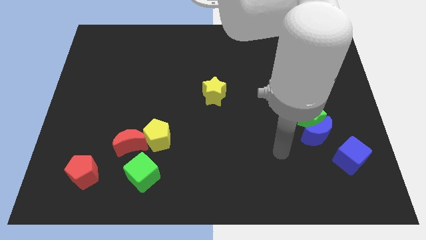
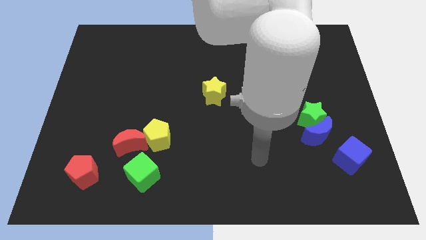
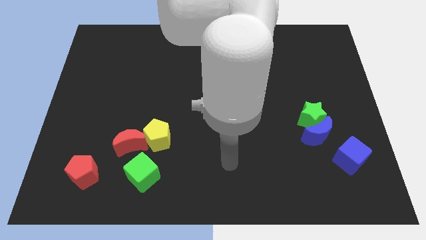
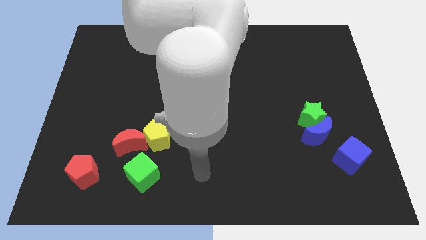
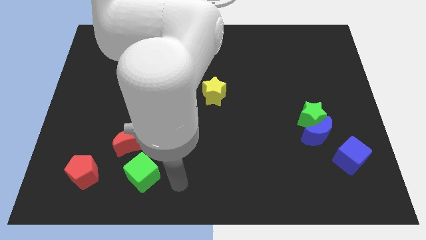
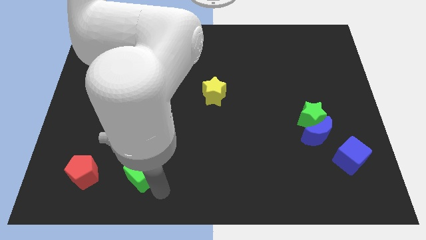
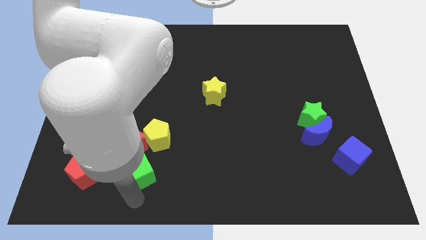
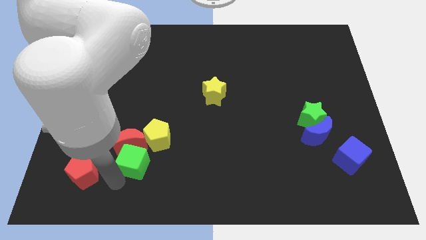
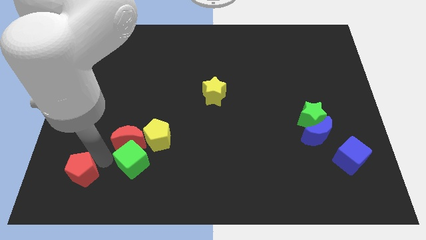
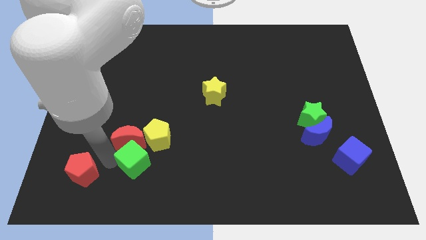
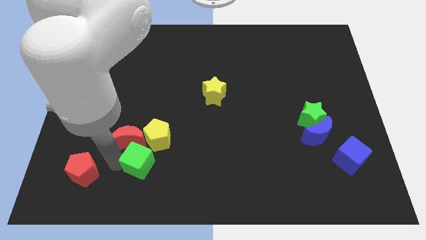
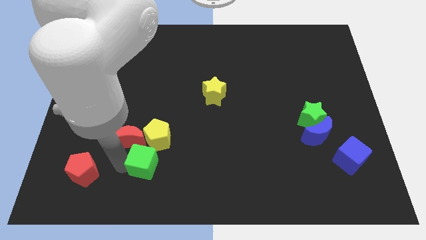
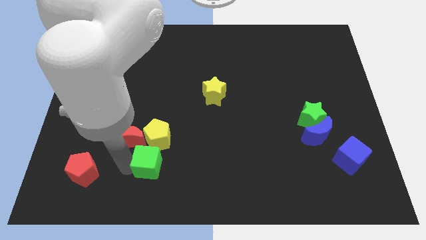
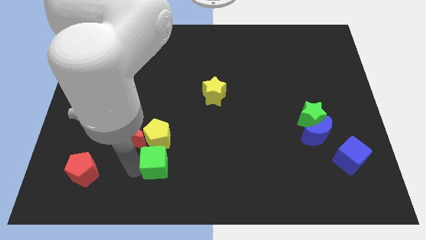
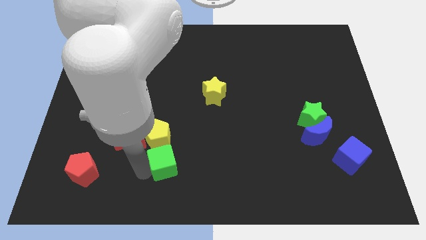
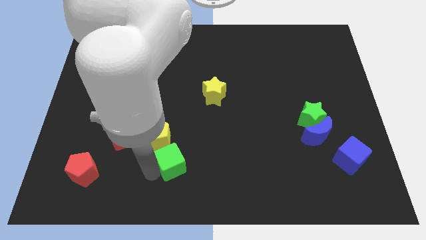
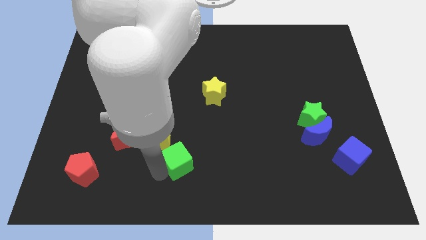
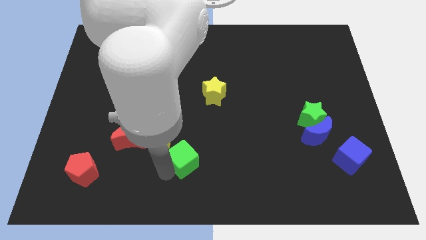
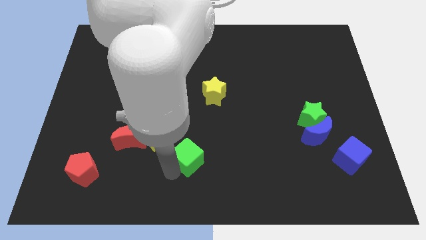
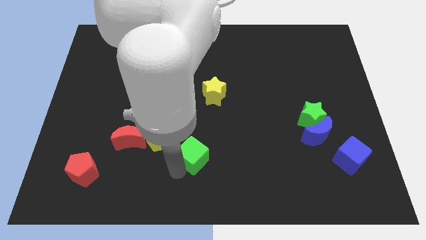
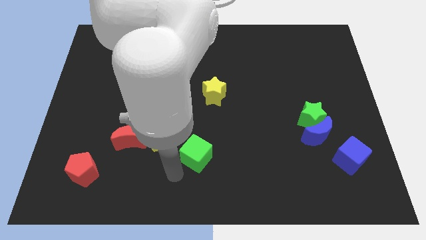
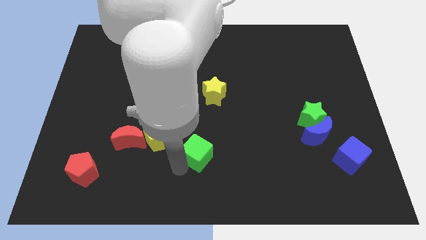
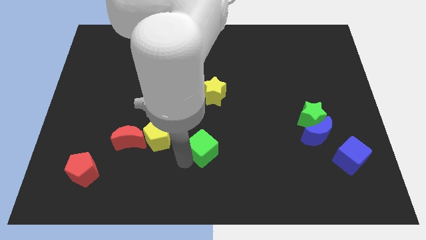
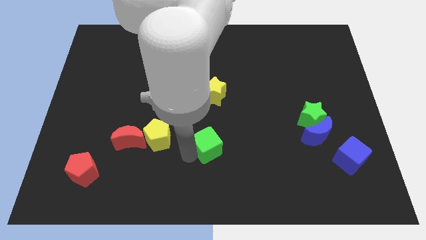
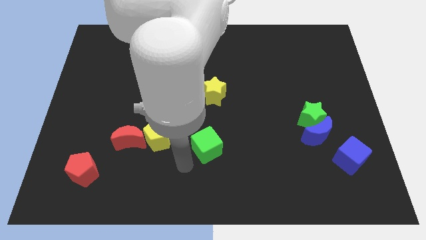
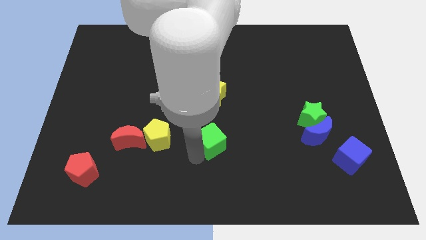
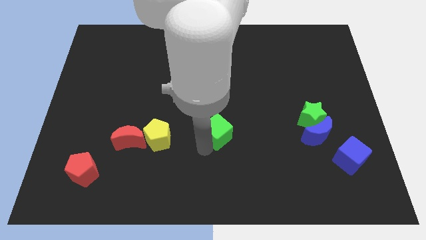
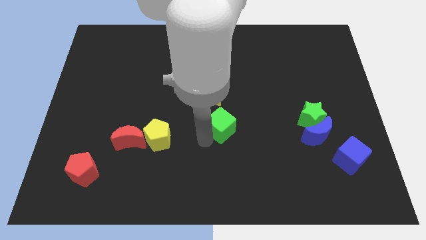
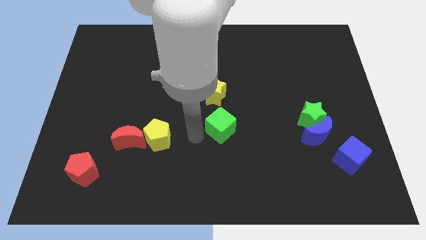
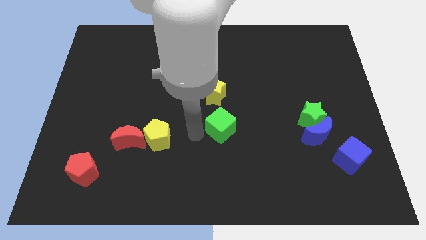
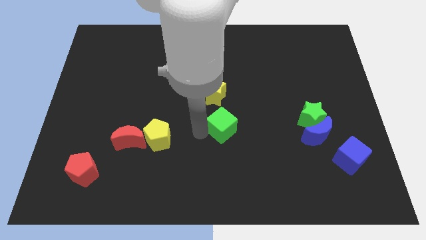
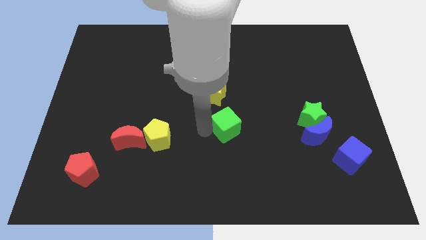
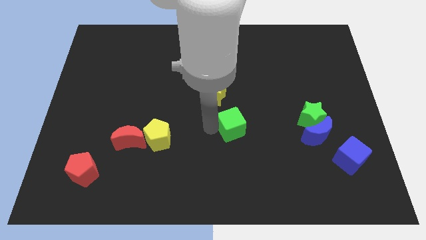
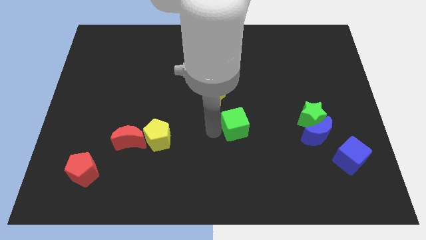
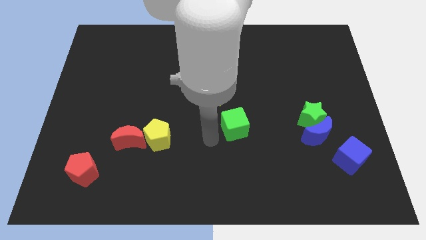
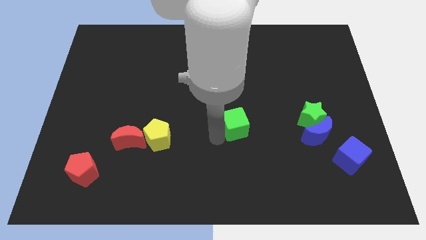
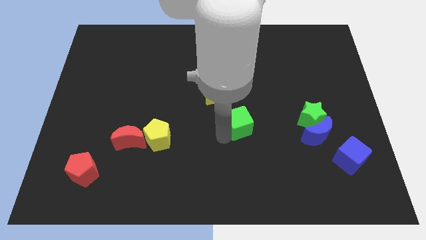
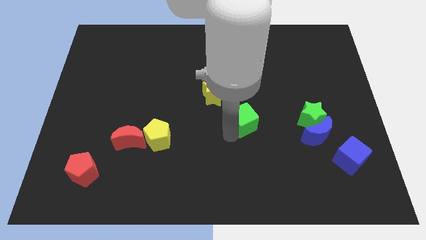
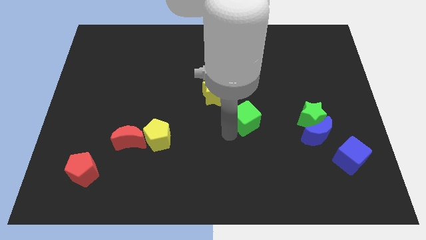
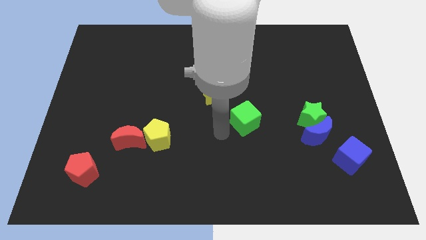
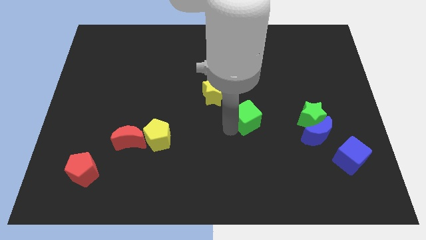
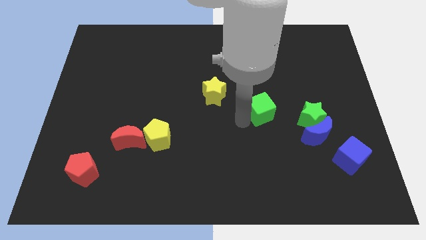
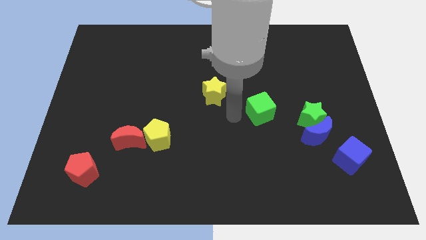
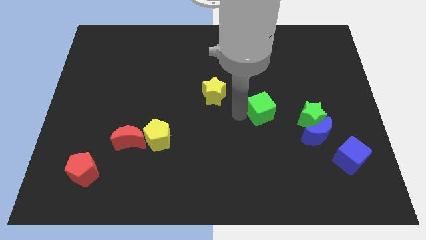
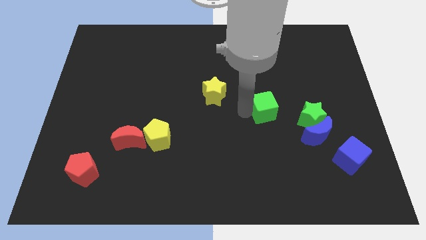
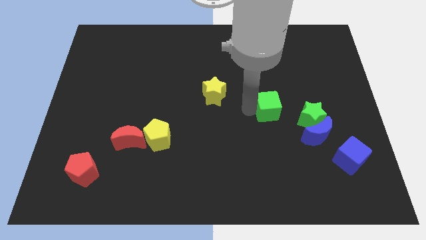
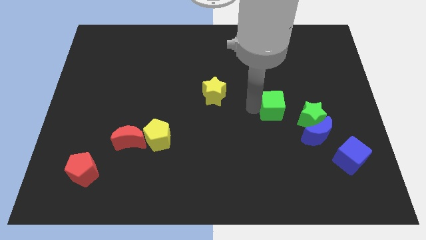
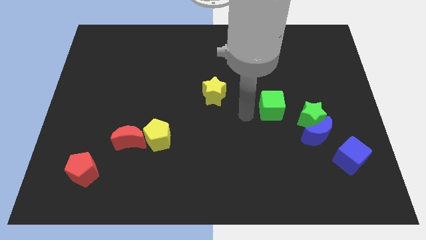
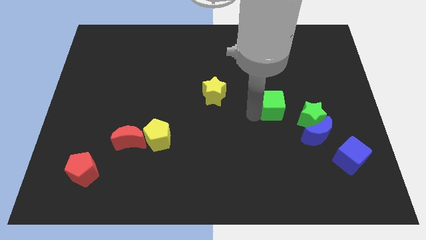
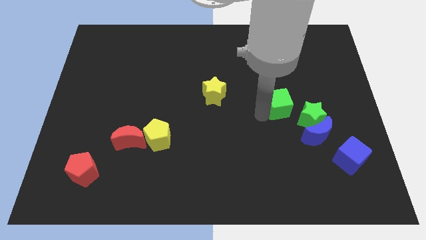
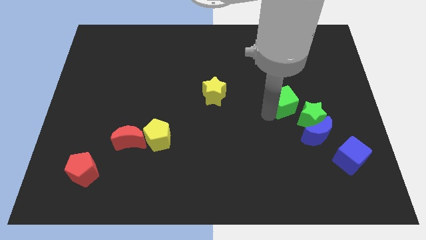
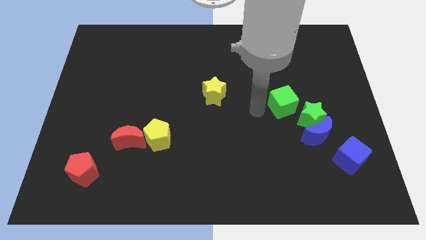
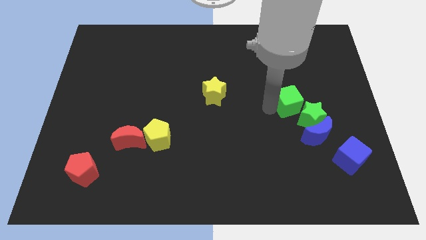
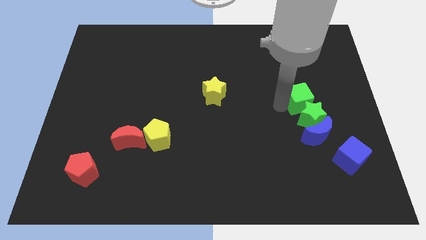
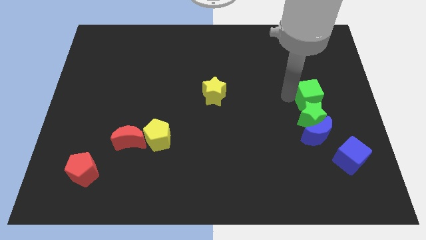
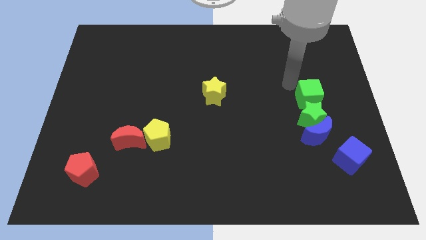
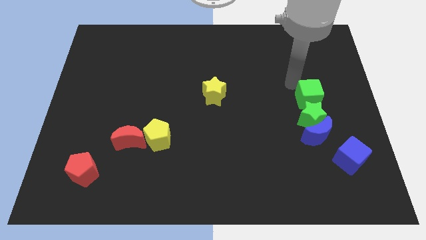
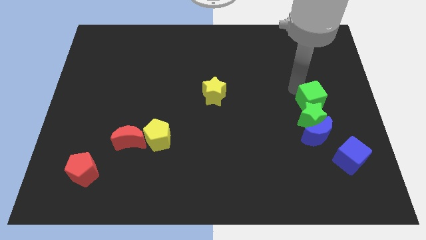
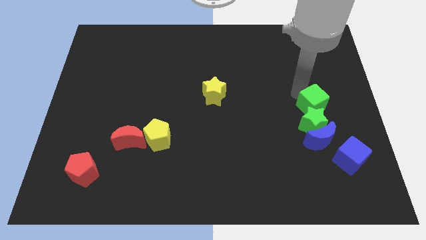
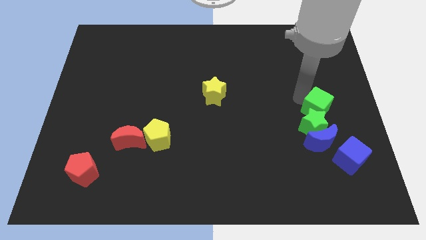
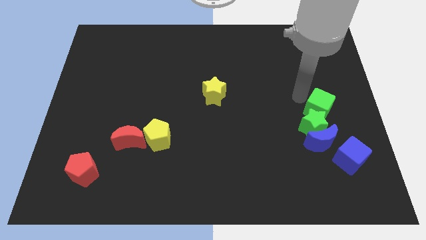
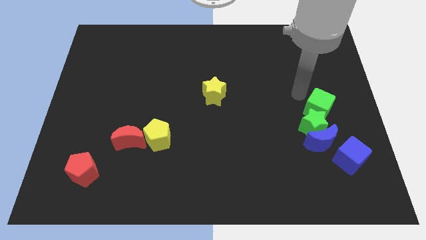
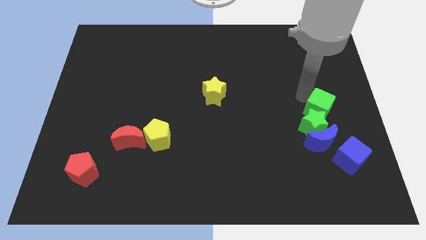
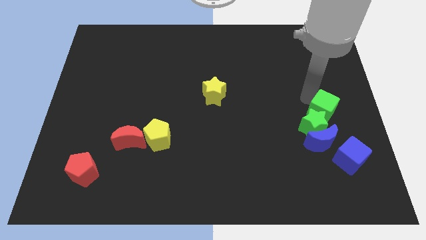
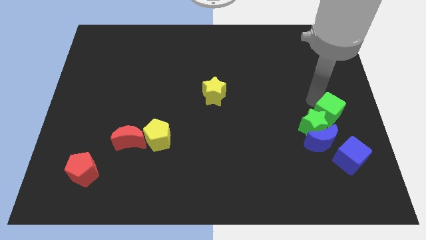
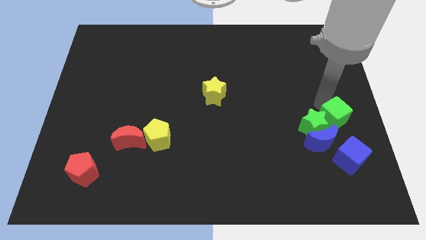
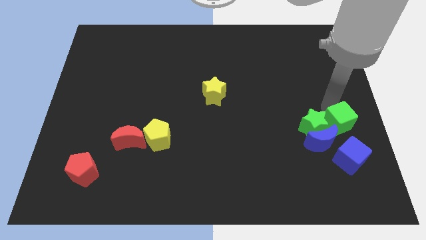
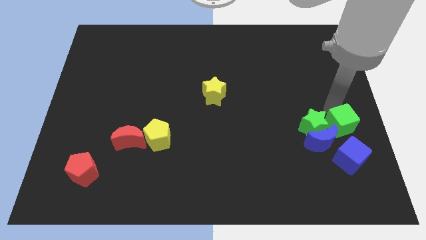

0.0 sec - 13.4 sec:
move the green cube to the bottom right of the green star
